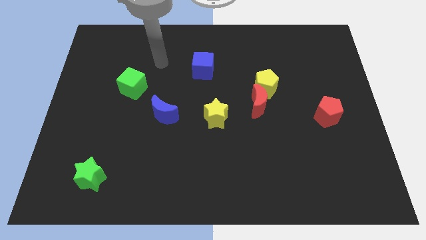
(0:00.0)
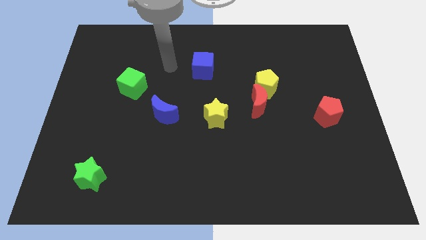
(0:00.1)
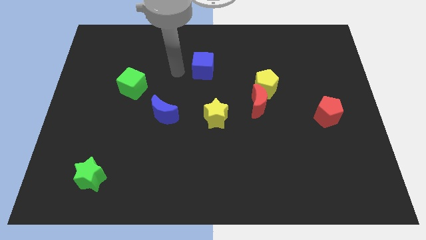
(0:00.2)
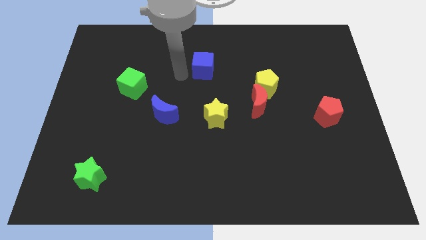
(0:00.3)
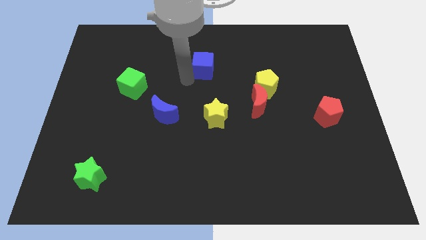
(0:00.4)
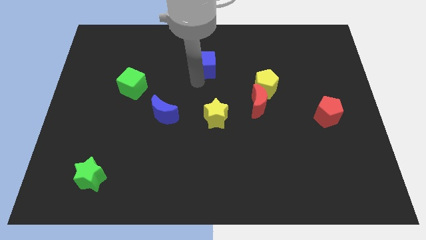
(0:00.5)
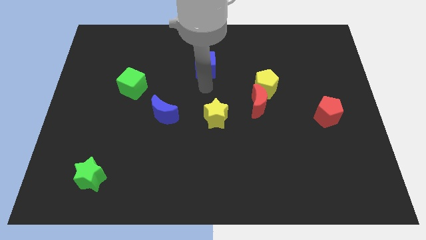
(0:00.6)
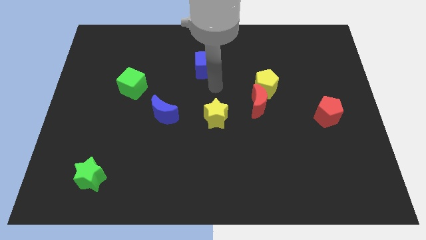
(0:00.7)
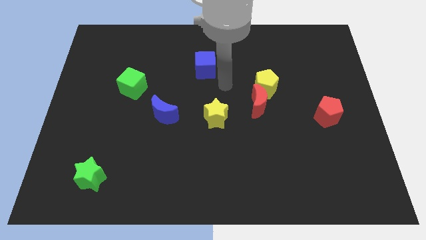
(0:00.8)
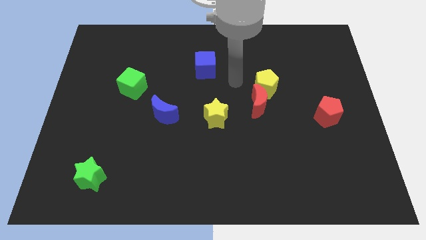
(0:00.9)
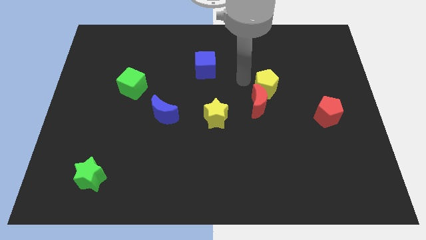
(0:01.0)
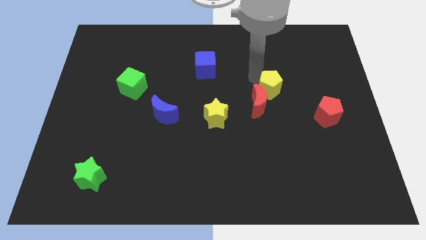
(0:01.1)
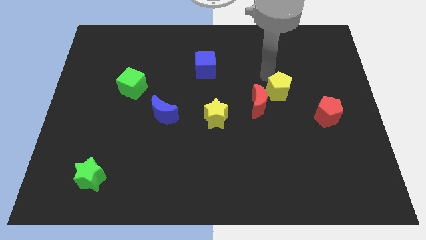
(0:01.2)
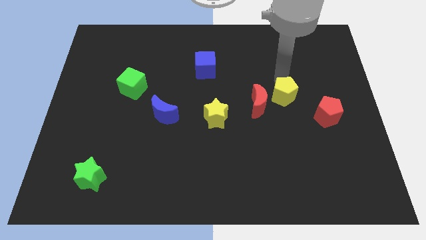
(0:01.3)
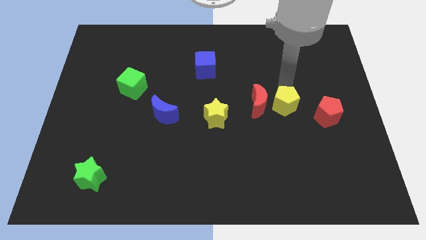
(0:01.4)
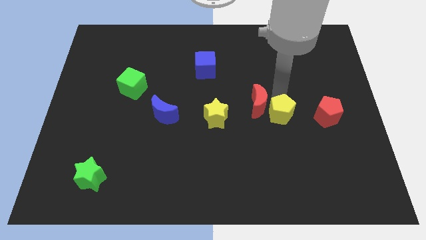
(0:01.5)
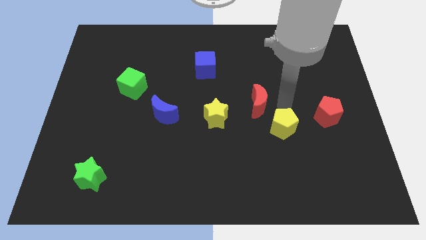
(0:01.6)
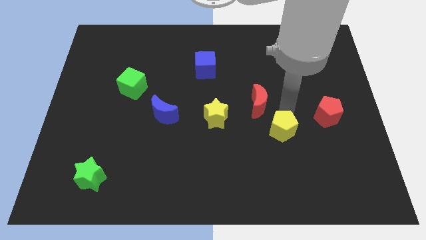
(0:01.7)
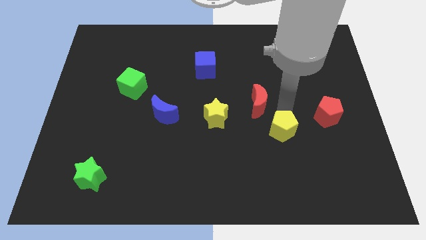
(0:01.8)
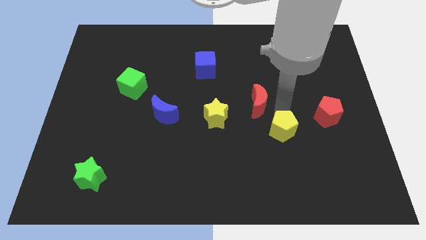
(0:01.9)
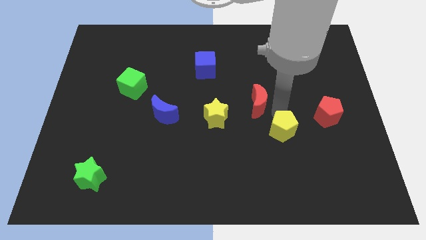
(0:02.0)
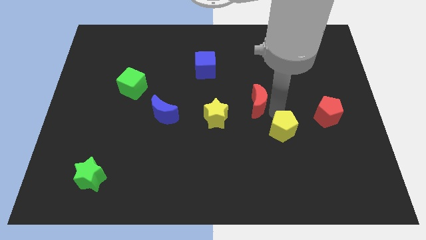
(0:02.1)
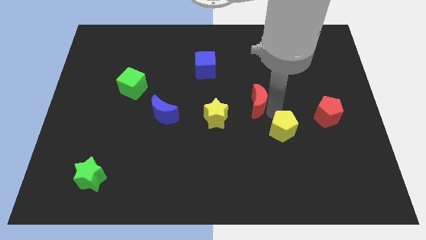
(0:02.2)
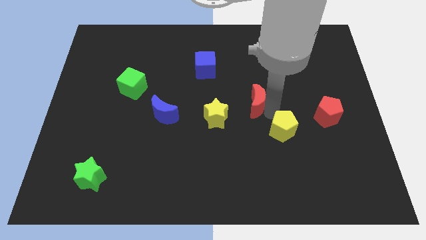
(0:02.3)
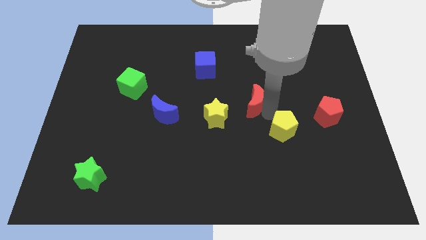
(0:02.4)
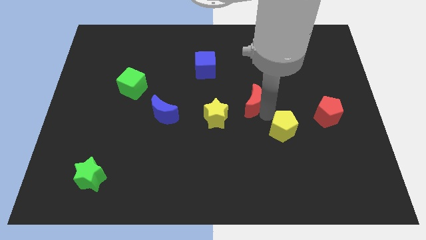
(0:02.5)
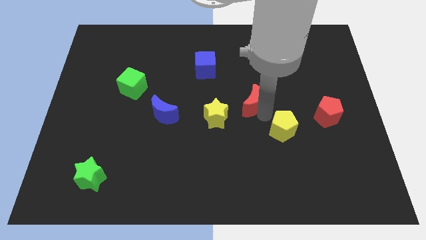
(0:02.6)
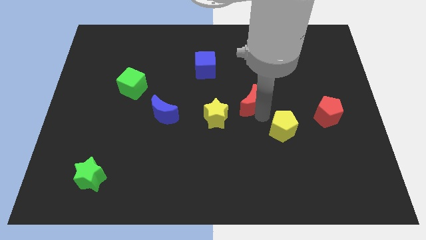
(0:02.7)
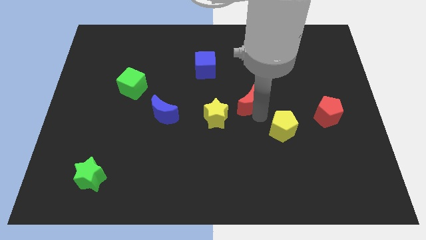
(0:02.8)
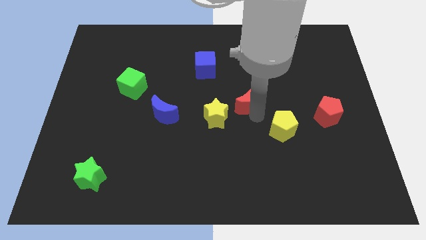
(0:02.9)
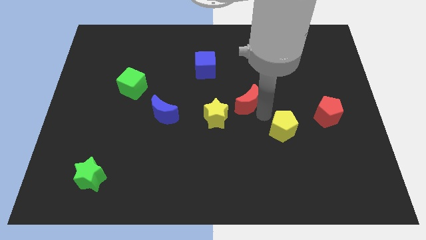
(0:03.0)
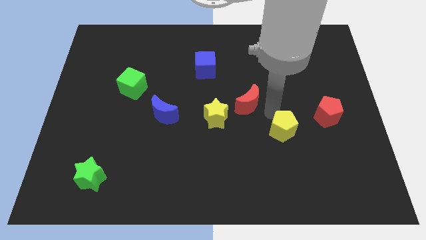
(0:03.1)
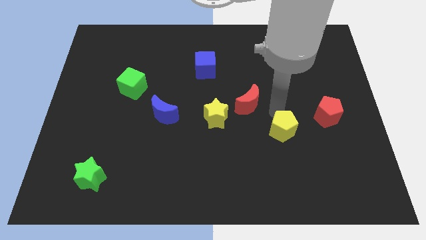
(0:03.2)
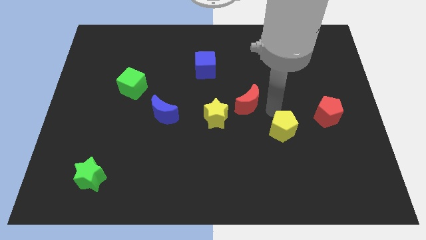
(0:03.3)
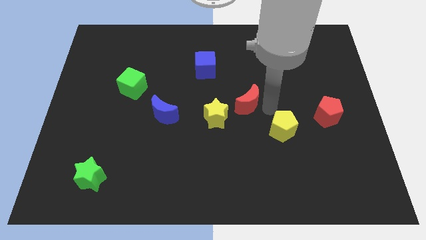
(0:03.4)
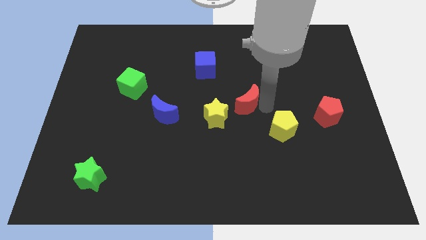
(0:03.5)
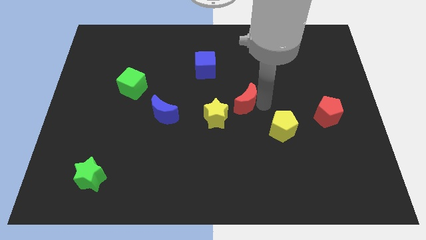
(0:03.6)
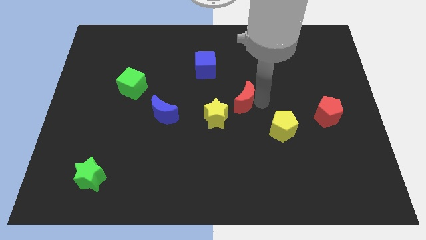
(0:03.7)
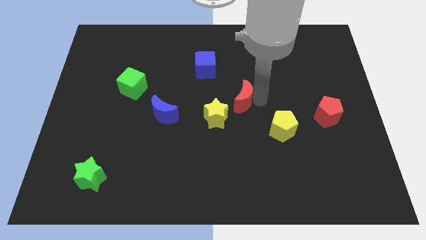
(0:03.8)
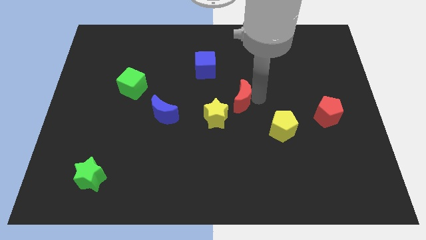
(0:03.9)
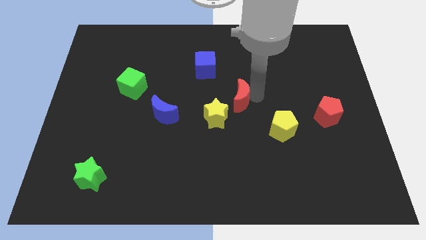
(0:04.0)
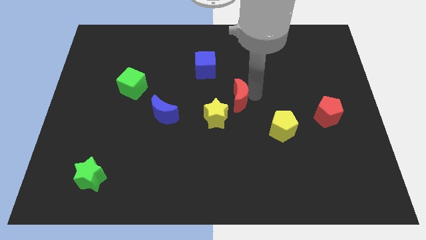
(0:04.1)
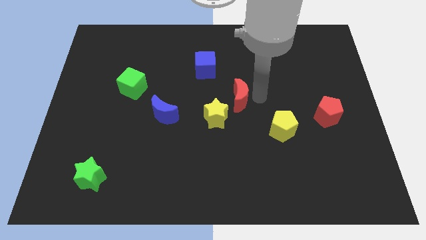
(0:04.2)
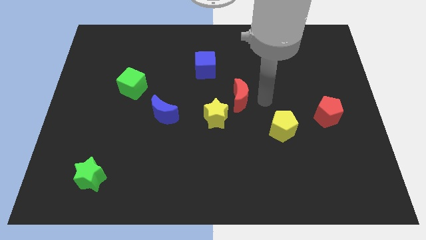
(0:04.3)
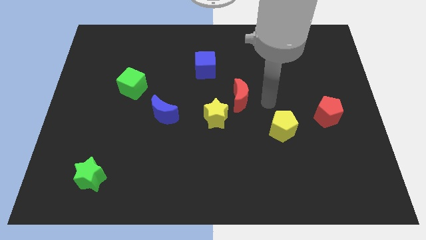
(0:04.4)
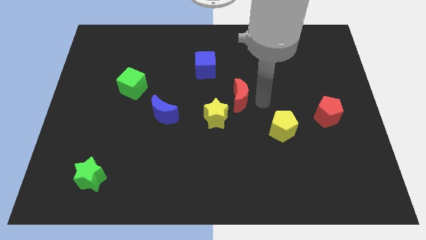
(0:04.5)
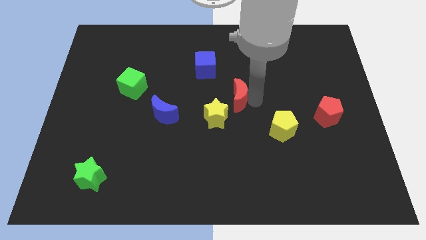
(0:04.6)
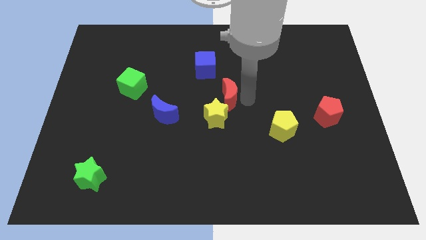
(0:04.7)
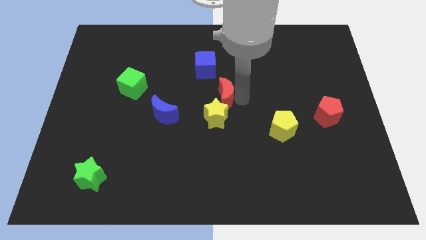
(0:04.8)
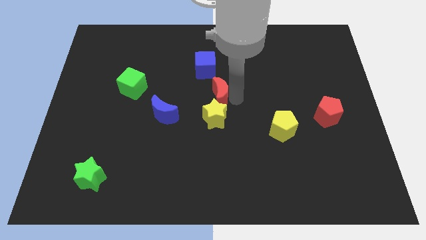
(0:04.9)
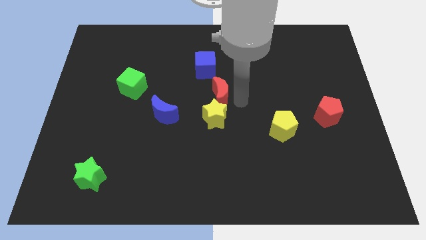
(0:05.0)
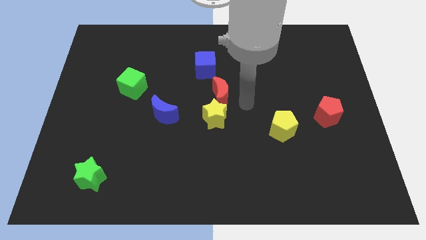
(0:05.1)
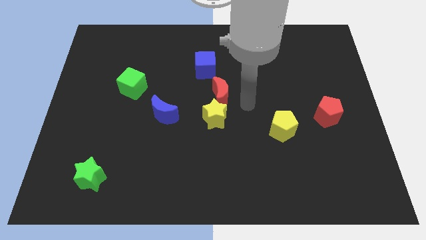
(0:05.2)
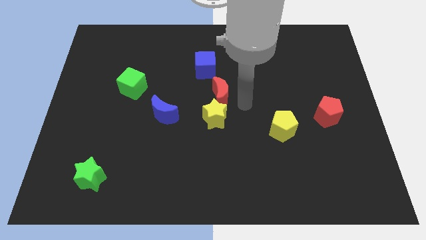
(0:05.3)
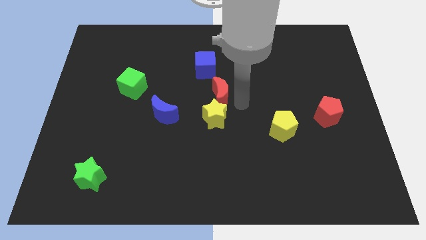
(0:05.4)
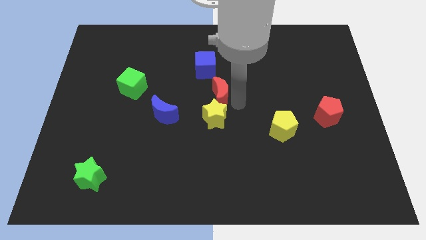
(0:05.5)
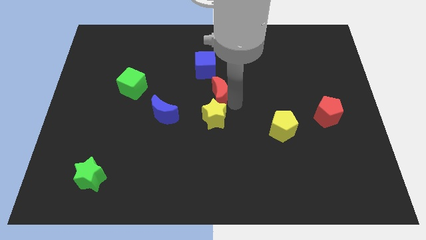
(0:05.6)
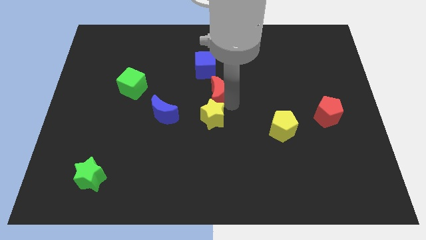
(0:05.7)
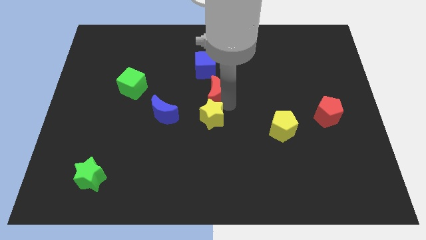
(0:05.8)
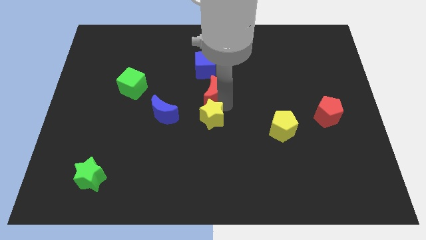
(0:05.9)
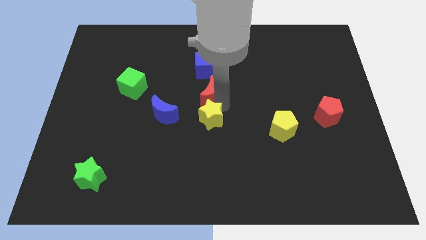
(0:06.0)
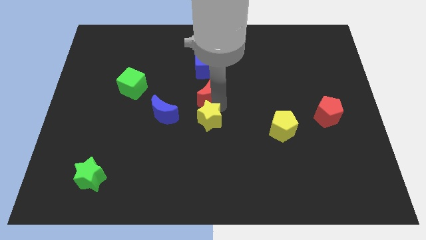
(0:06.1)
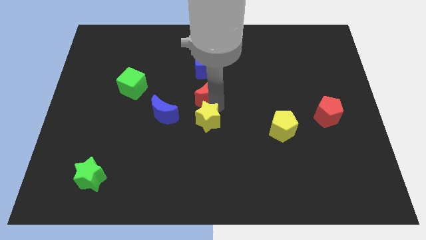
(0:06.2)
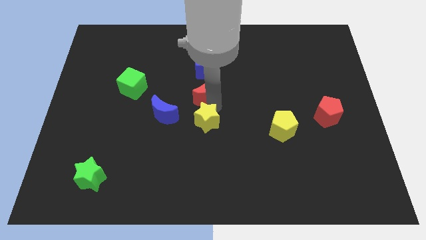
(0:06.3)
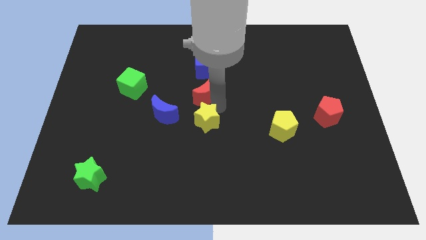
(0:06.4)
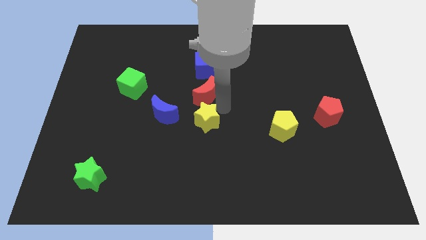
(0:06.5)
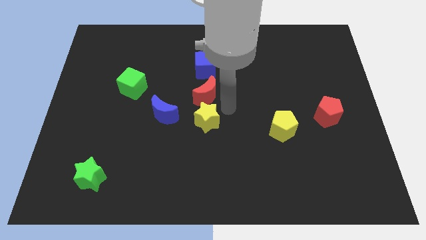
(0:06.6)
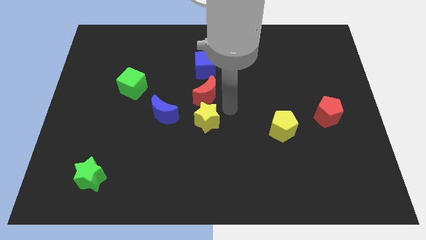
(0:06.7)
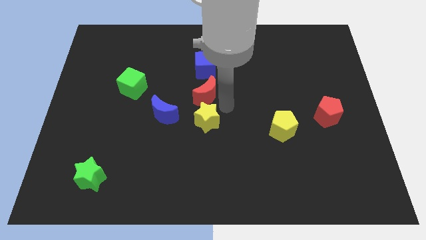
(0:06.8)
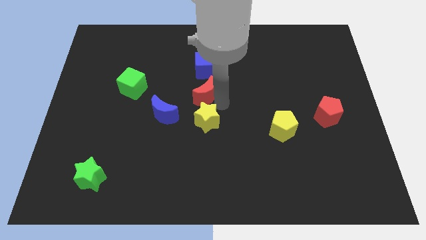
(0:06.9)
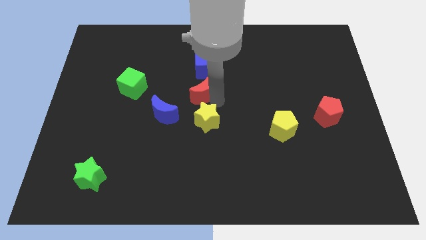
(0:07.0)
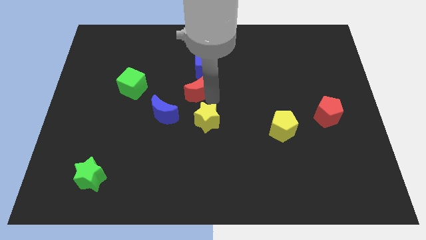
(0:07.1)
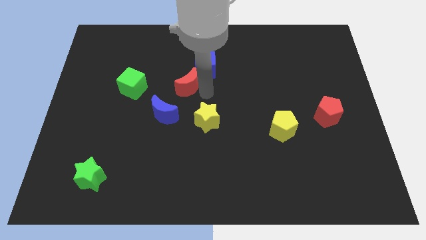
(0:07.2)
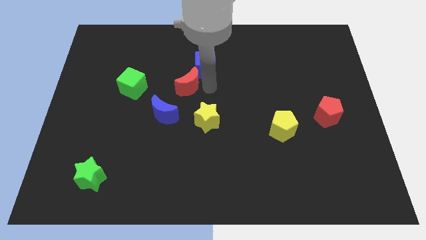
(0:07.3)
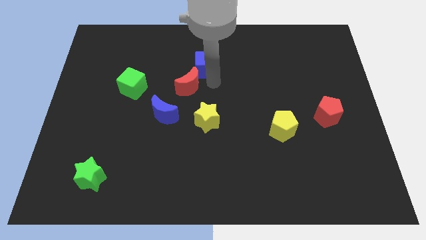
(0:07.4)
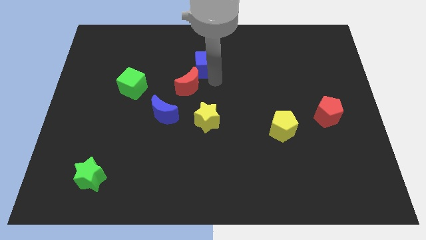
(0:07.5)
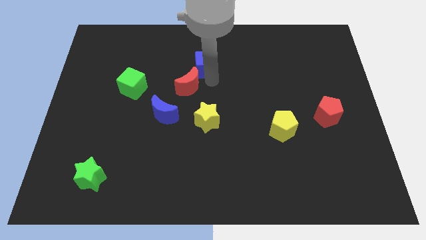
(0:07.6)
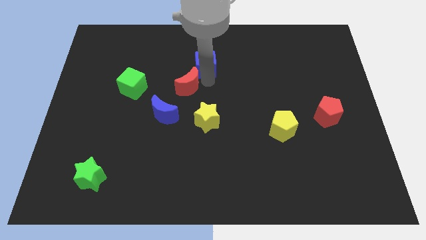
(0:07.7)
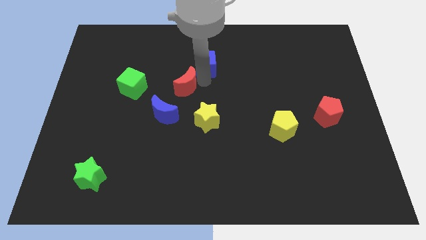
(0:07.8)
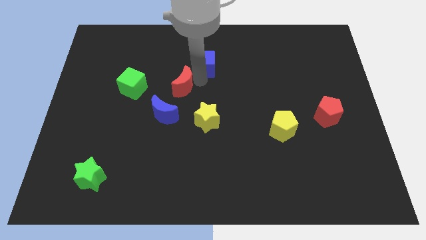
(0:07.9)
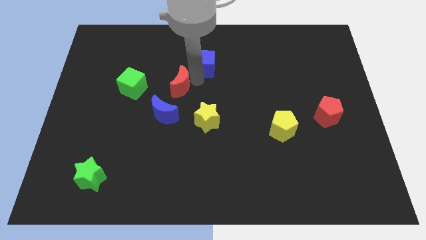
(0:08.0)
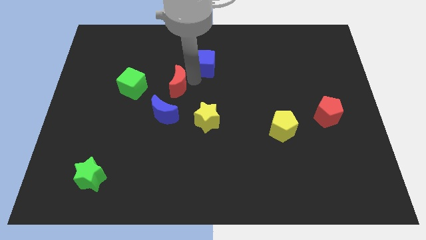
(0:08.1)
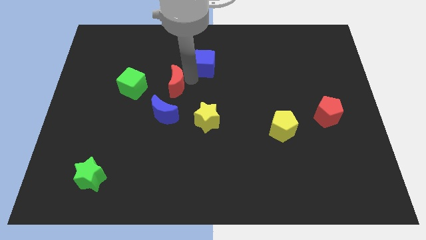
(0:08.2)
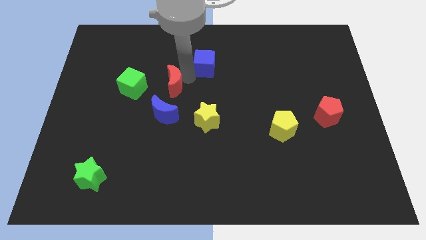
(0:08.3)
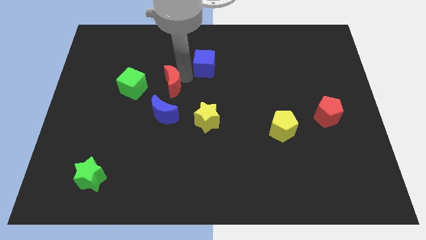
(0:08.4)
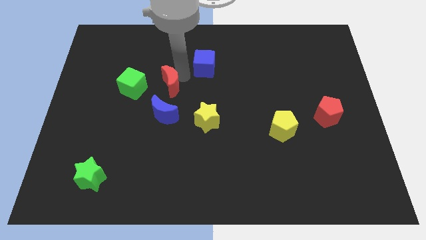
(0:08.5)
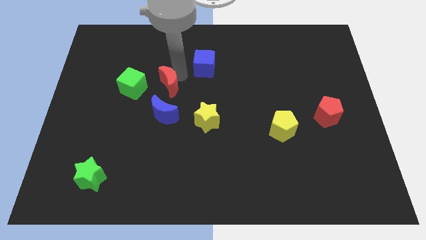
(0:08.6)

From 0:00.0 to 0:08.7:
move the red moon to the left
